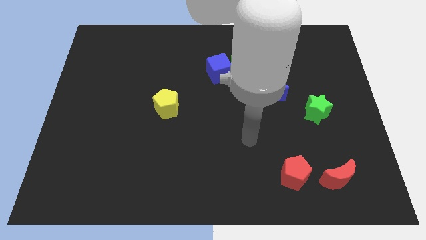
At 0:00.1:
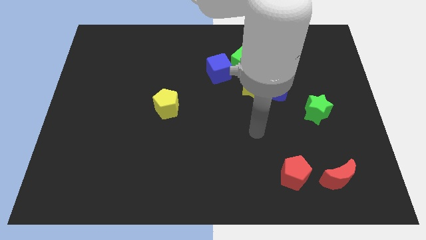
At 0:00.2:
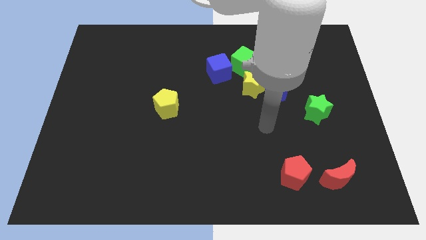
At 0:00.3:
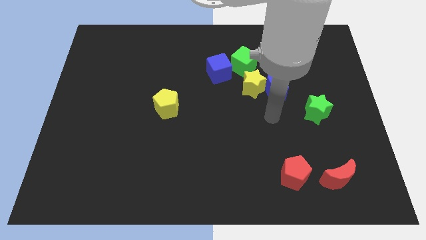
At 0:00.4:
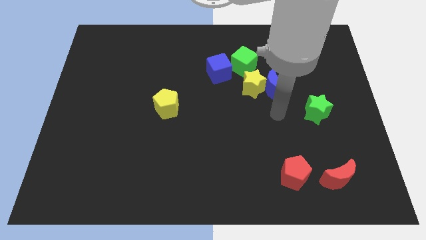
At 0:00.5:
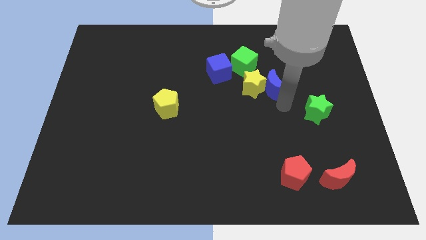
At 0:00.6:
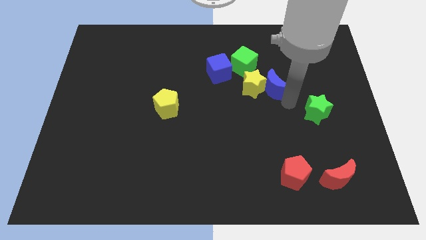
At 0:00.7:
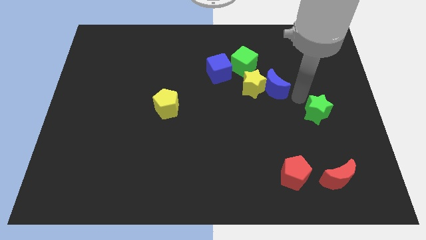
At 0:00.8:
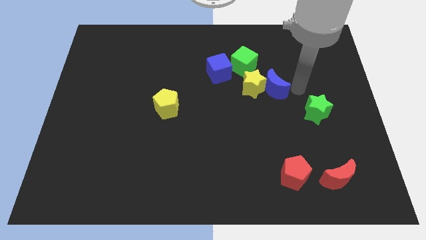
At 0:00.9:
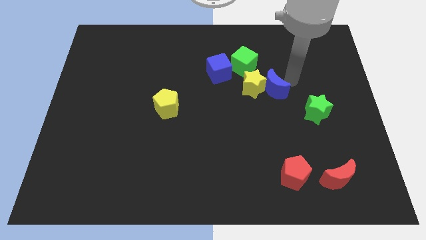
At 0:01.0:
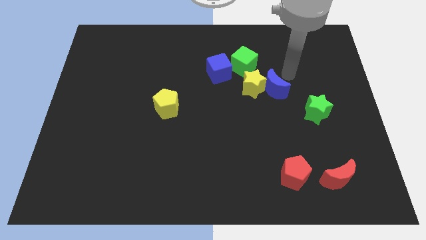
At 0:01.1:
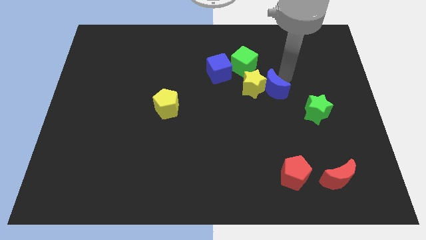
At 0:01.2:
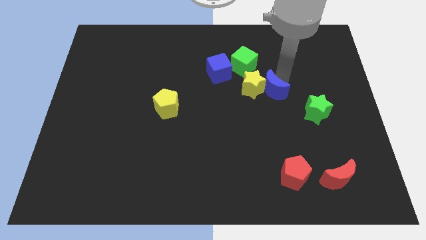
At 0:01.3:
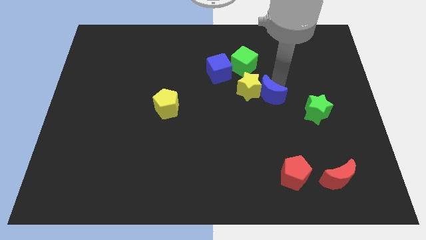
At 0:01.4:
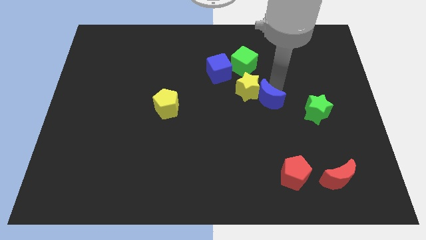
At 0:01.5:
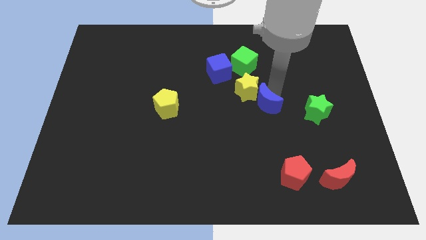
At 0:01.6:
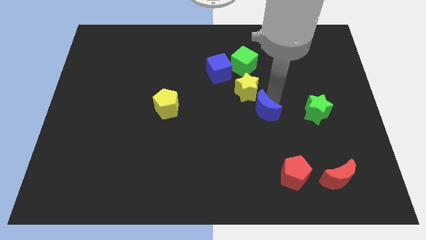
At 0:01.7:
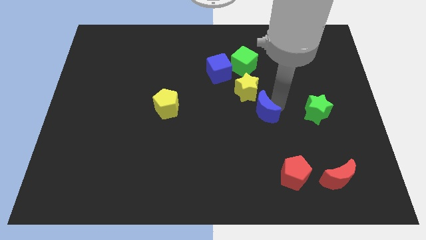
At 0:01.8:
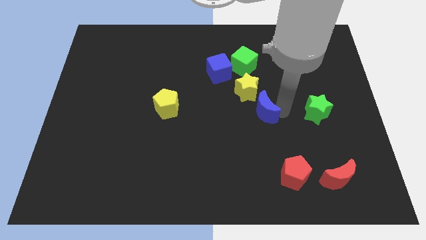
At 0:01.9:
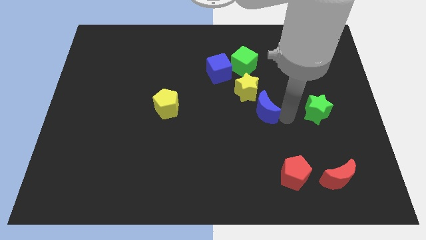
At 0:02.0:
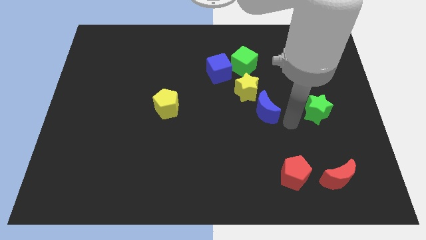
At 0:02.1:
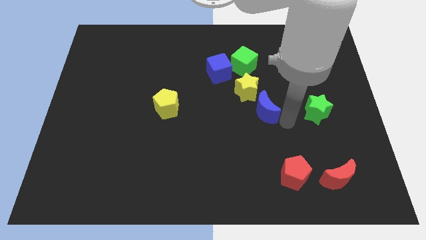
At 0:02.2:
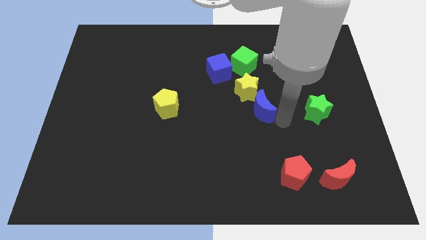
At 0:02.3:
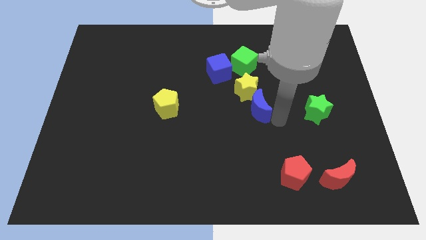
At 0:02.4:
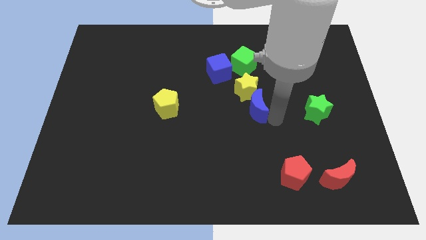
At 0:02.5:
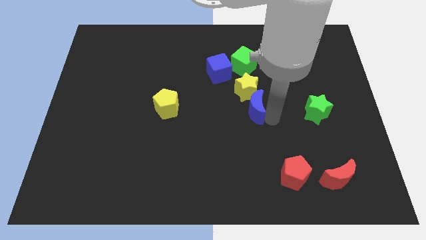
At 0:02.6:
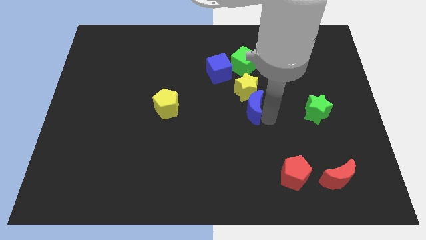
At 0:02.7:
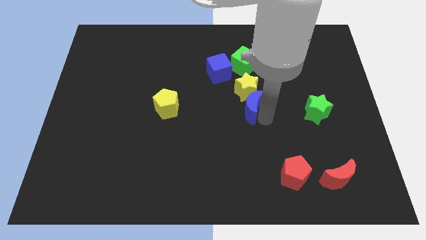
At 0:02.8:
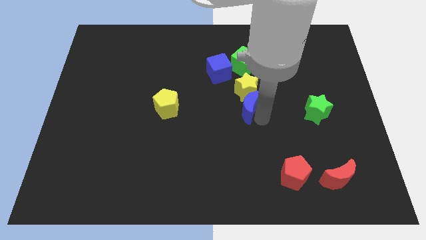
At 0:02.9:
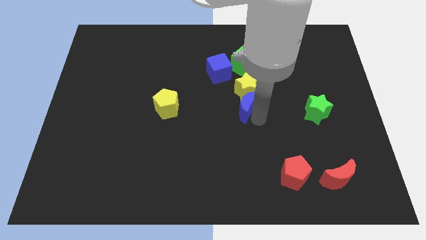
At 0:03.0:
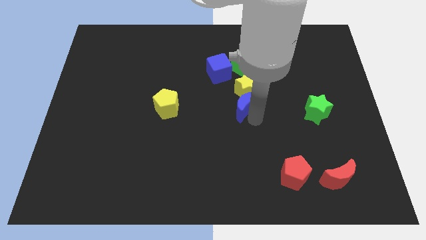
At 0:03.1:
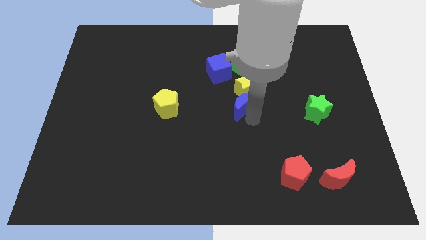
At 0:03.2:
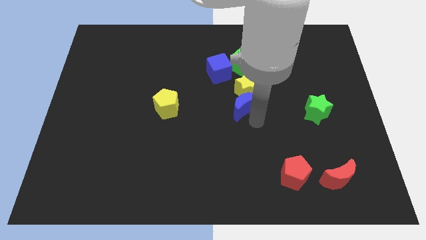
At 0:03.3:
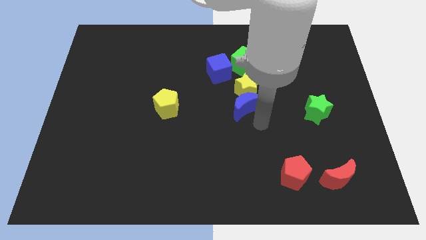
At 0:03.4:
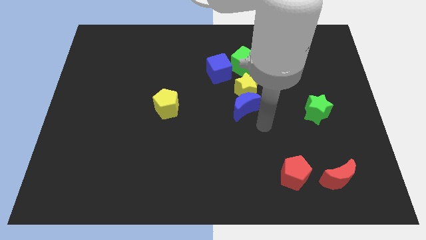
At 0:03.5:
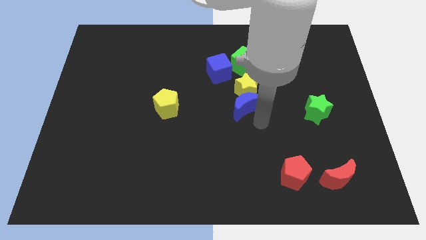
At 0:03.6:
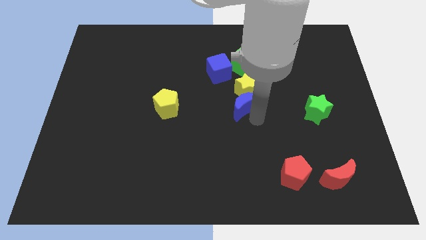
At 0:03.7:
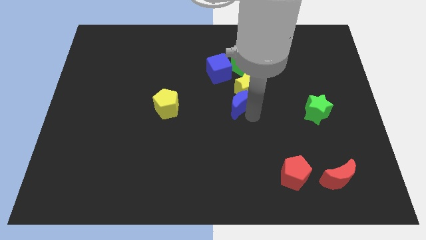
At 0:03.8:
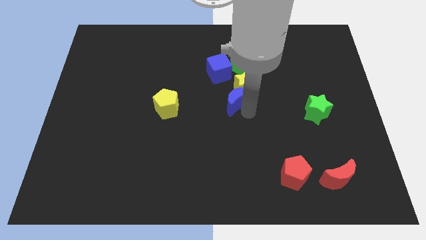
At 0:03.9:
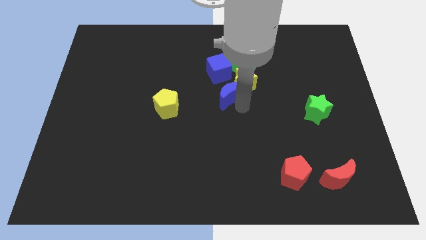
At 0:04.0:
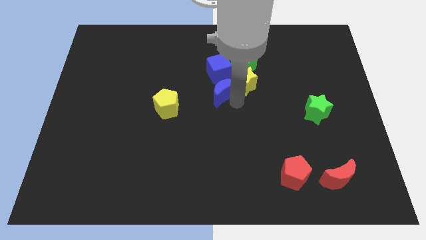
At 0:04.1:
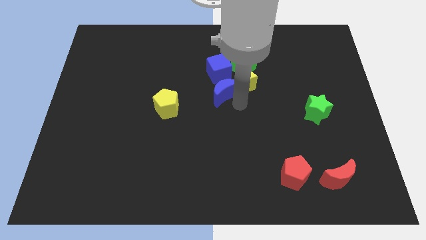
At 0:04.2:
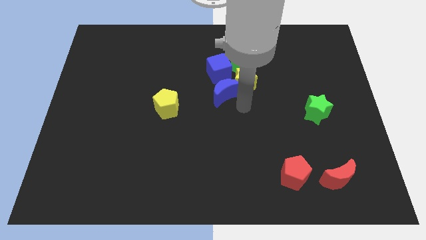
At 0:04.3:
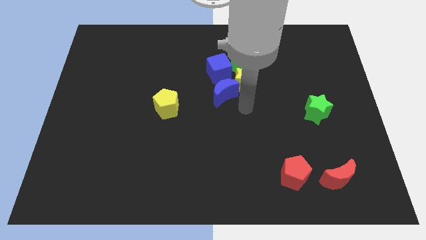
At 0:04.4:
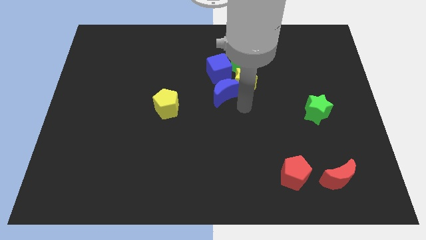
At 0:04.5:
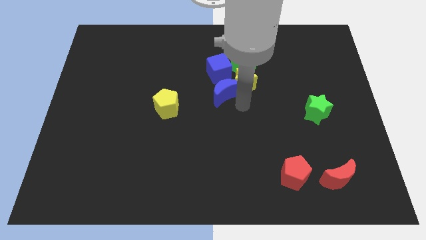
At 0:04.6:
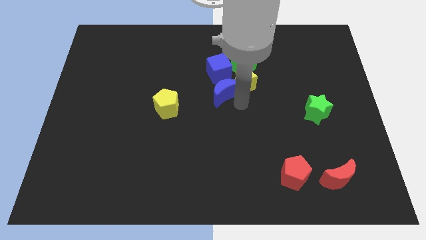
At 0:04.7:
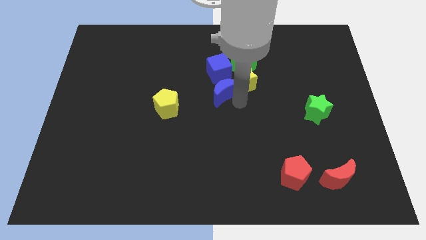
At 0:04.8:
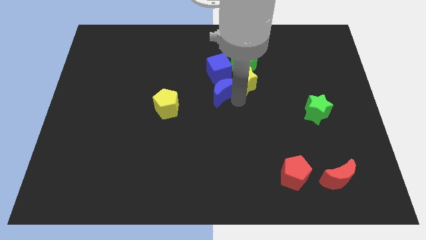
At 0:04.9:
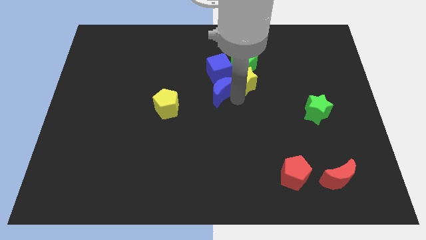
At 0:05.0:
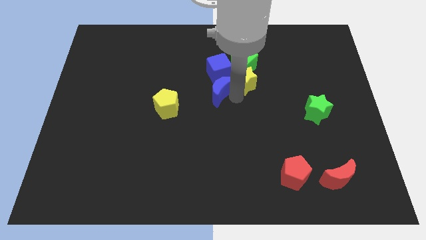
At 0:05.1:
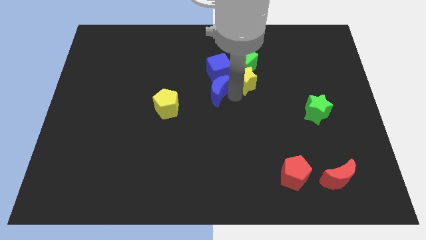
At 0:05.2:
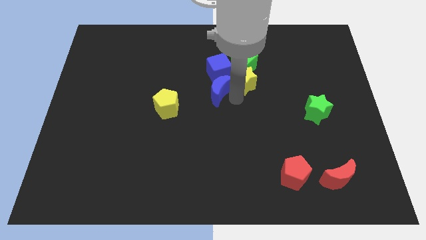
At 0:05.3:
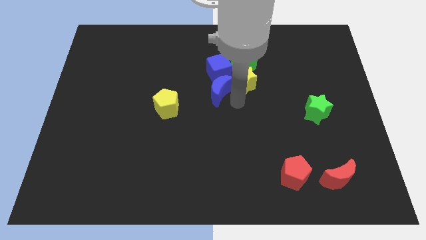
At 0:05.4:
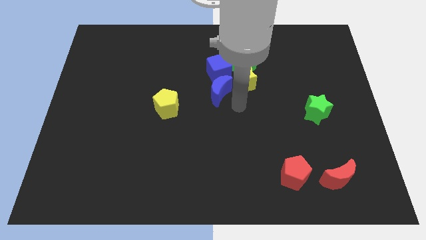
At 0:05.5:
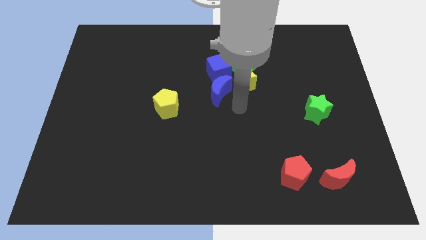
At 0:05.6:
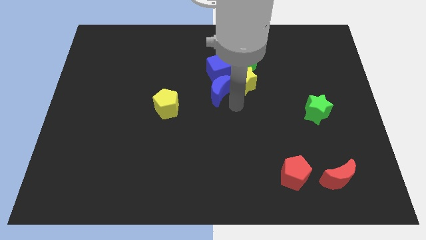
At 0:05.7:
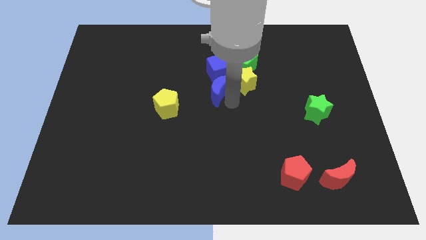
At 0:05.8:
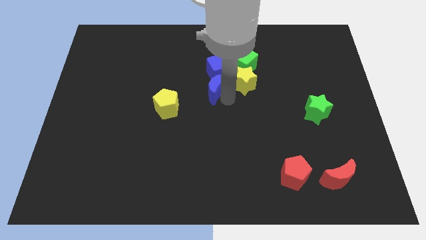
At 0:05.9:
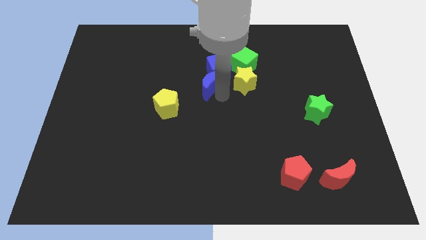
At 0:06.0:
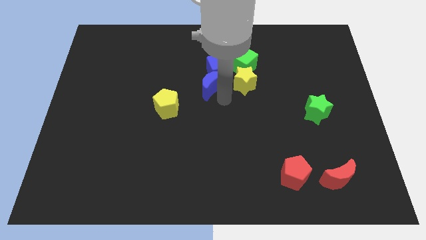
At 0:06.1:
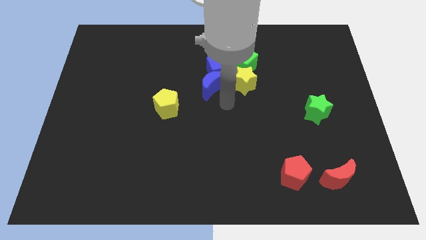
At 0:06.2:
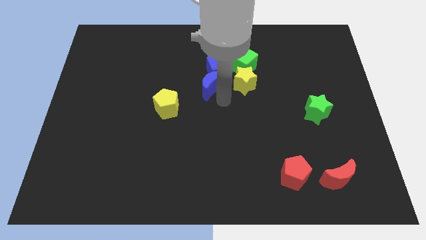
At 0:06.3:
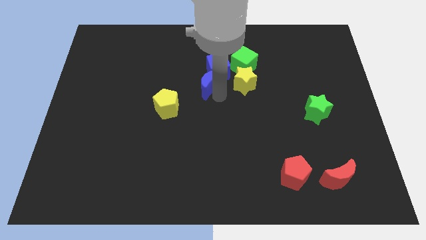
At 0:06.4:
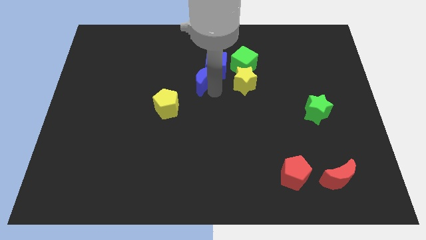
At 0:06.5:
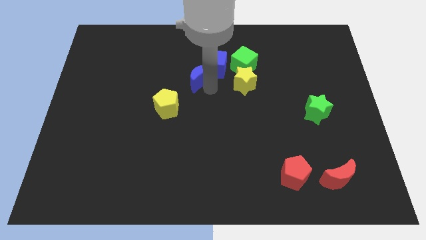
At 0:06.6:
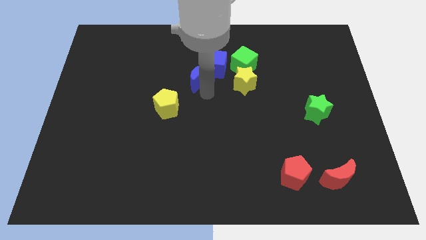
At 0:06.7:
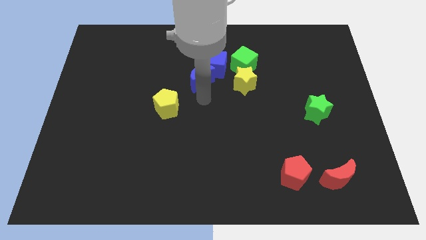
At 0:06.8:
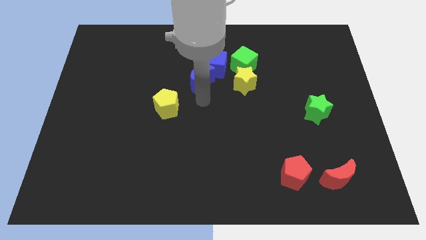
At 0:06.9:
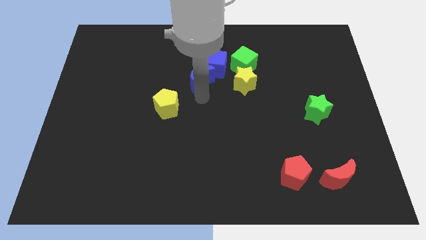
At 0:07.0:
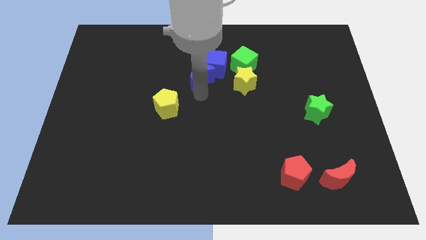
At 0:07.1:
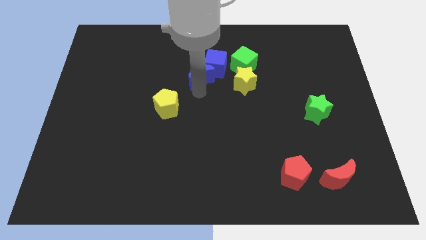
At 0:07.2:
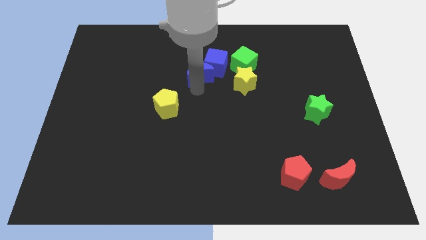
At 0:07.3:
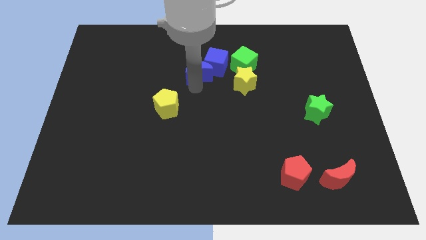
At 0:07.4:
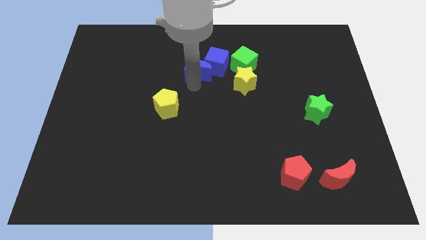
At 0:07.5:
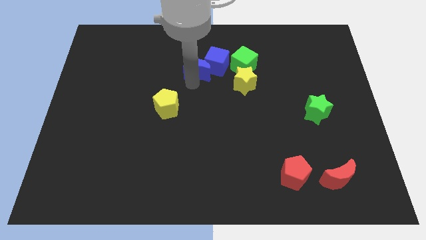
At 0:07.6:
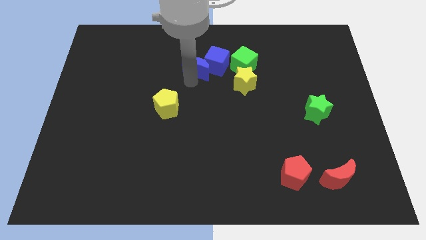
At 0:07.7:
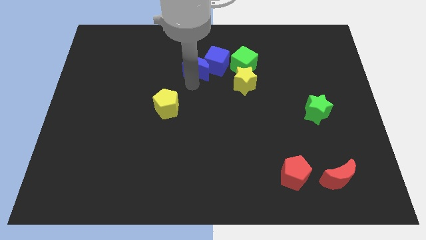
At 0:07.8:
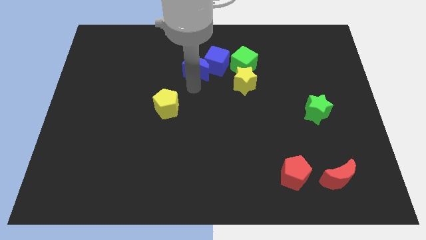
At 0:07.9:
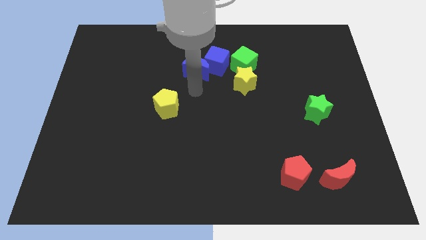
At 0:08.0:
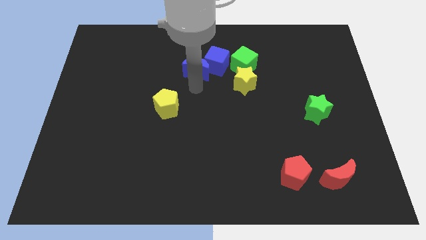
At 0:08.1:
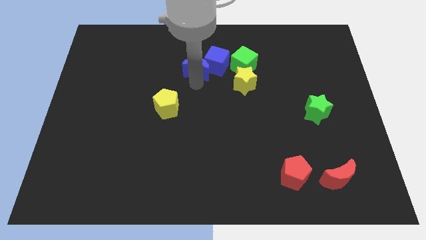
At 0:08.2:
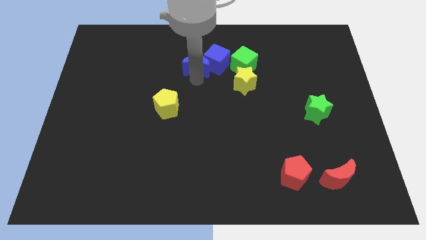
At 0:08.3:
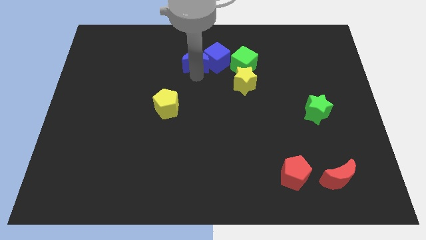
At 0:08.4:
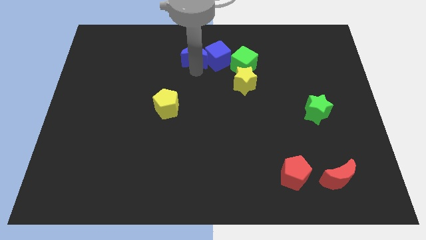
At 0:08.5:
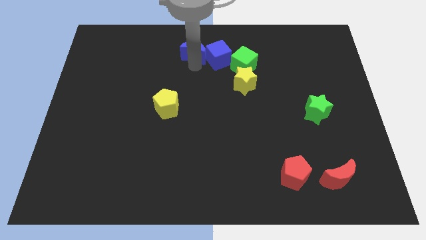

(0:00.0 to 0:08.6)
push the blue moon to the top
